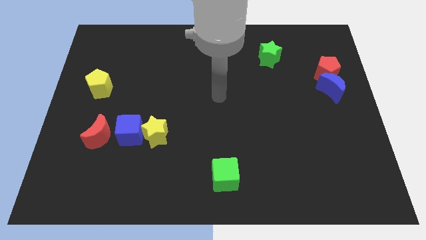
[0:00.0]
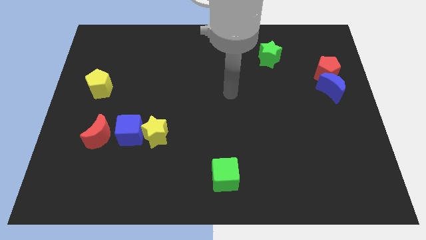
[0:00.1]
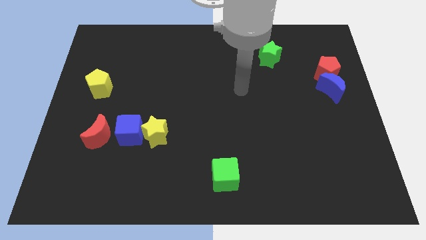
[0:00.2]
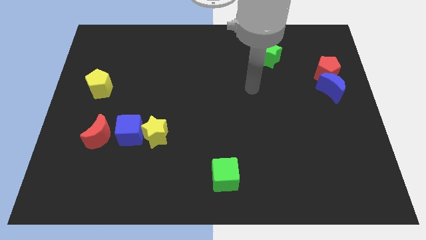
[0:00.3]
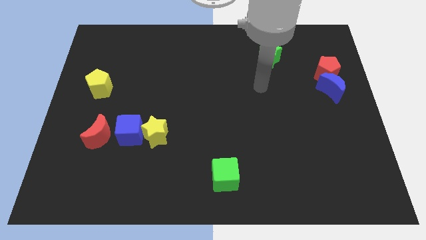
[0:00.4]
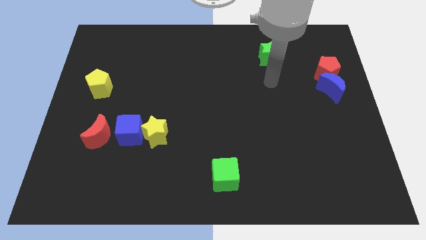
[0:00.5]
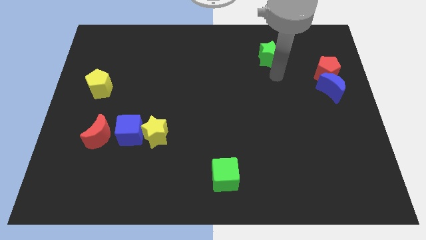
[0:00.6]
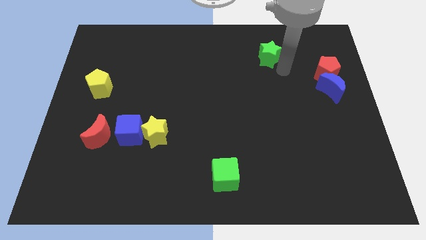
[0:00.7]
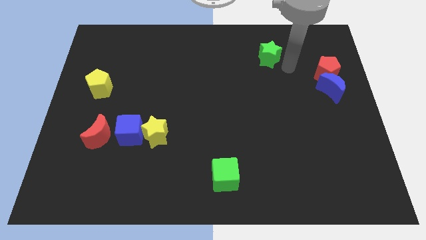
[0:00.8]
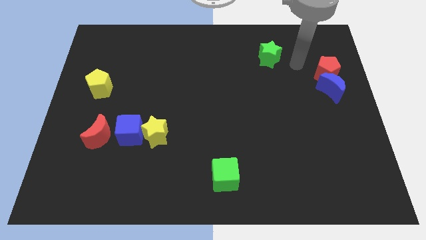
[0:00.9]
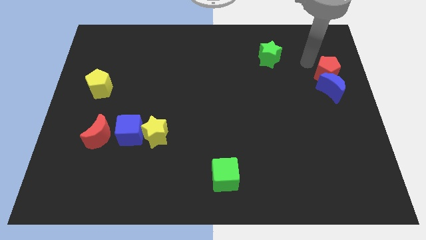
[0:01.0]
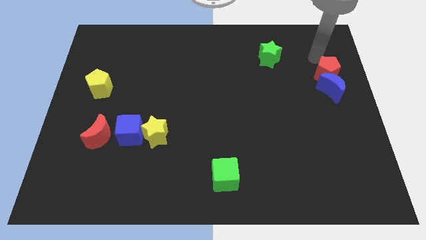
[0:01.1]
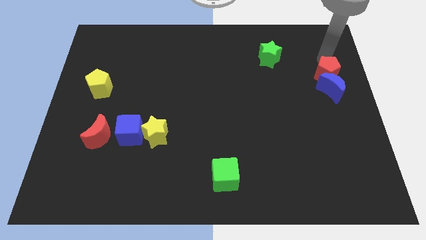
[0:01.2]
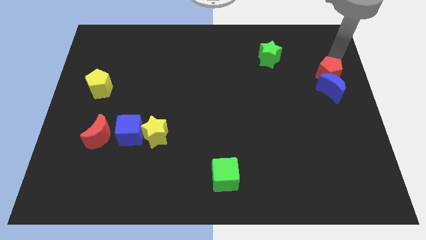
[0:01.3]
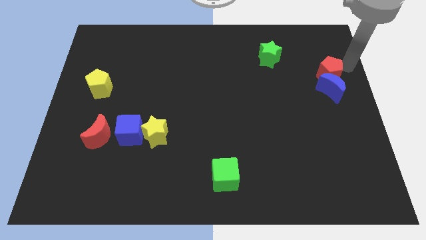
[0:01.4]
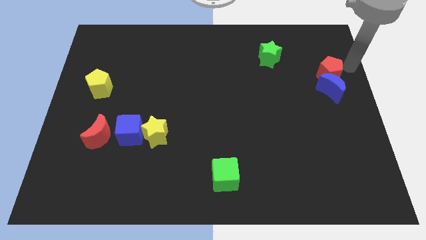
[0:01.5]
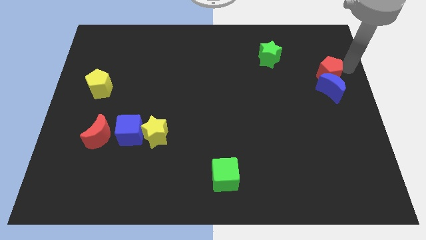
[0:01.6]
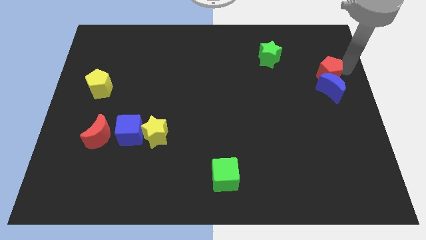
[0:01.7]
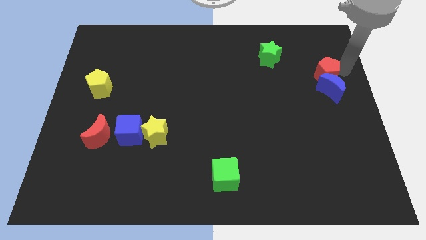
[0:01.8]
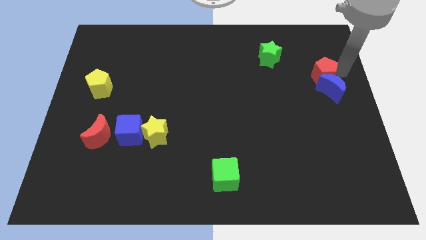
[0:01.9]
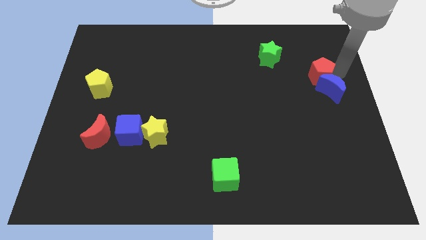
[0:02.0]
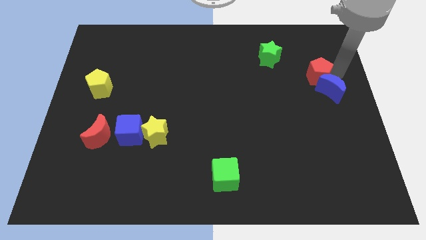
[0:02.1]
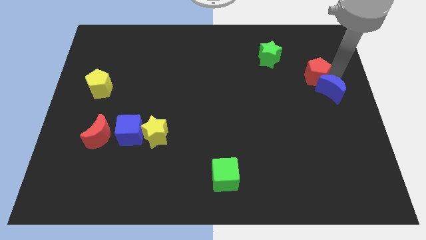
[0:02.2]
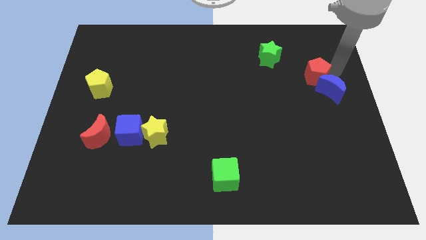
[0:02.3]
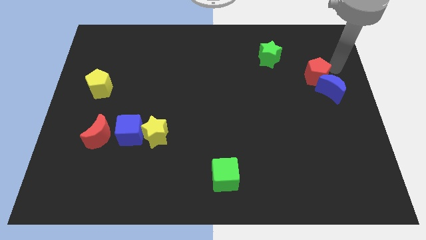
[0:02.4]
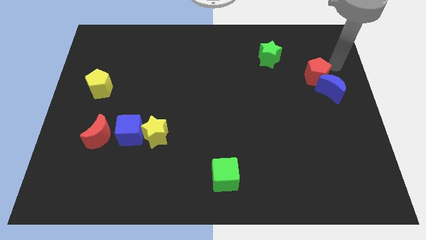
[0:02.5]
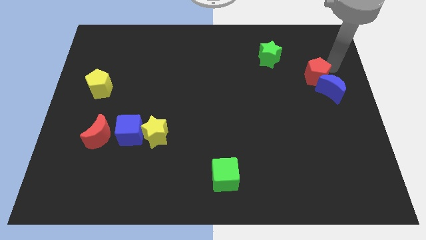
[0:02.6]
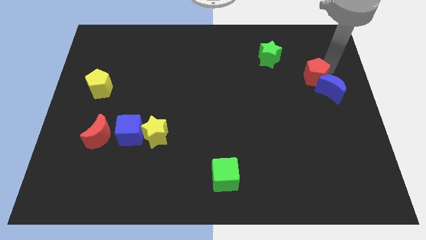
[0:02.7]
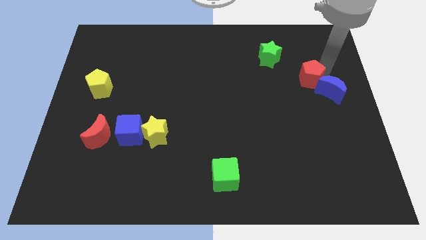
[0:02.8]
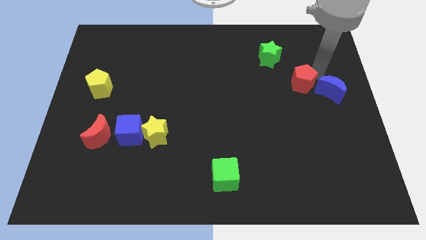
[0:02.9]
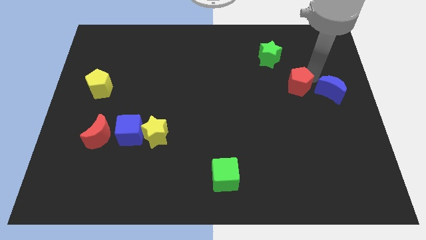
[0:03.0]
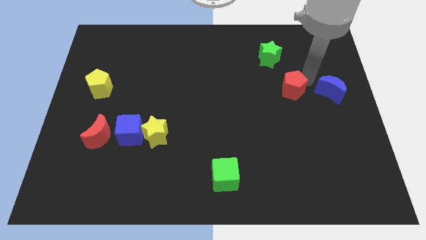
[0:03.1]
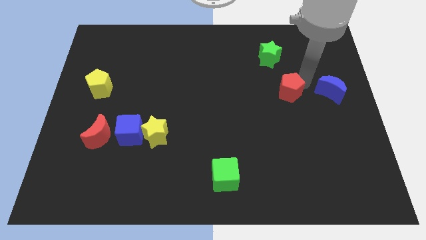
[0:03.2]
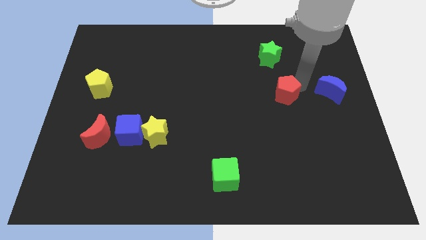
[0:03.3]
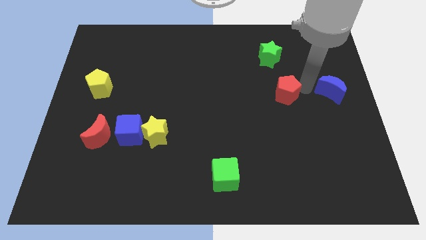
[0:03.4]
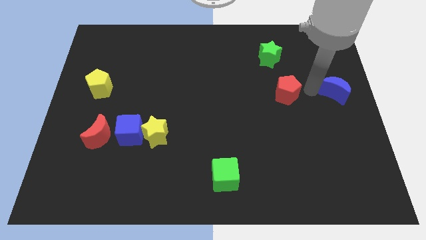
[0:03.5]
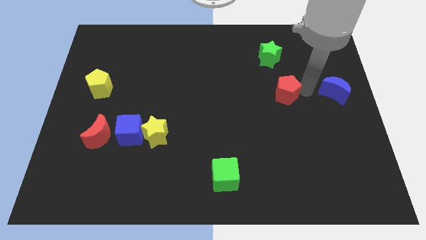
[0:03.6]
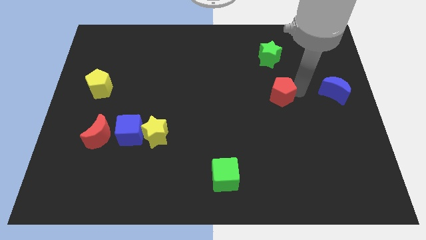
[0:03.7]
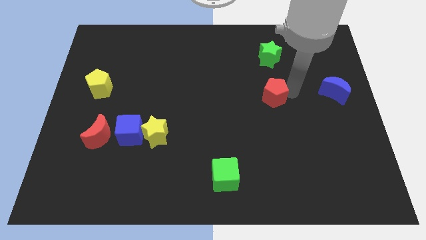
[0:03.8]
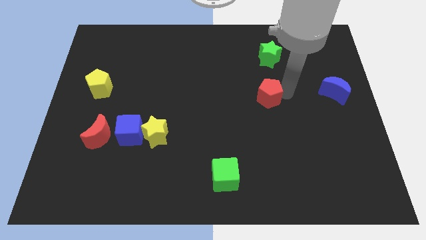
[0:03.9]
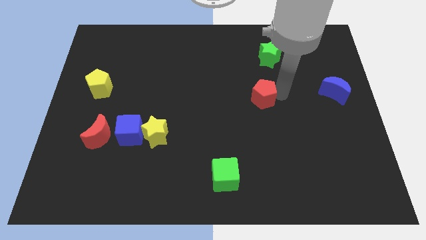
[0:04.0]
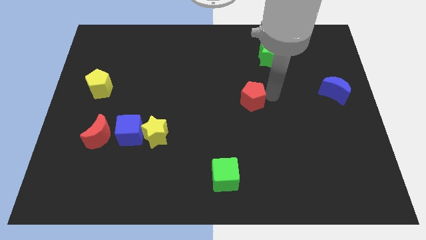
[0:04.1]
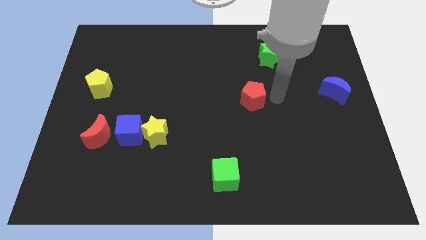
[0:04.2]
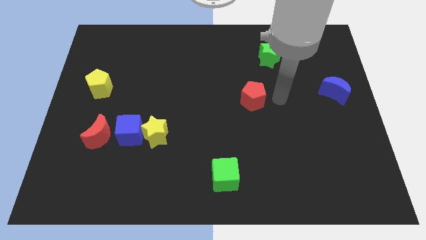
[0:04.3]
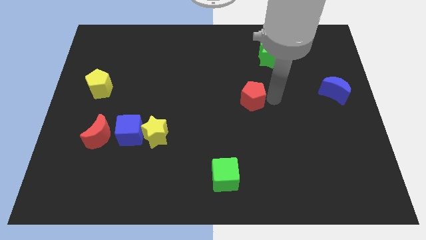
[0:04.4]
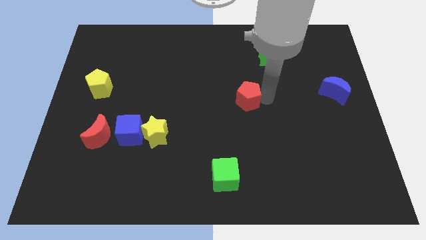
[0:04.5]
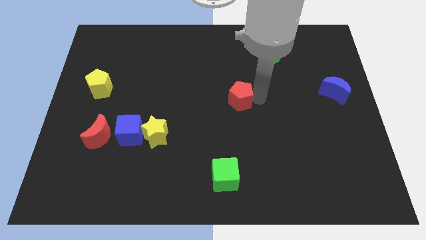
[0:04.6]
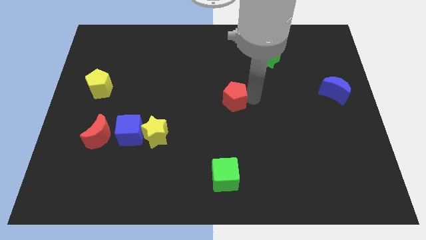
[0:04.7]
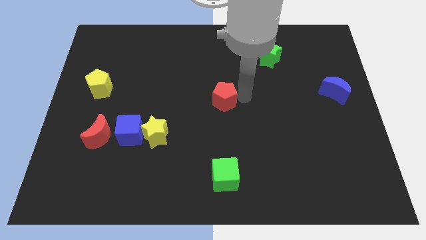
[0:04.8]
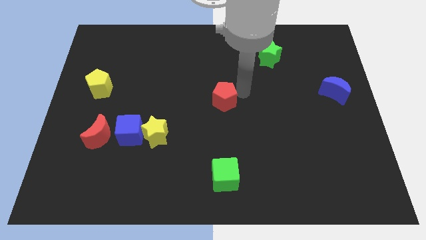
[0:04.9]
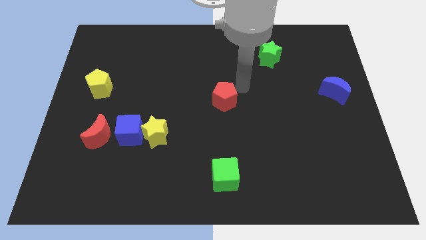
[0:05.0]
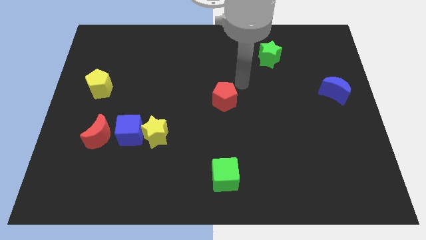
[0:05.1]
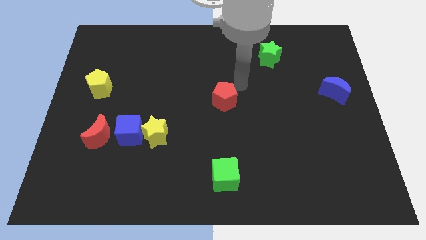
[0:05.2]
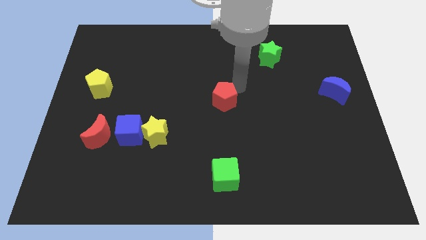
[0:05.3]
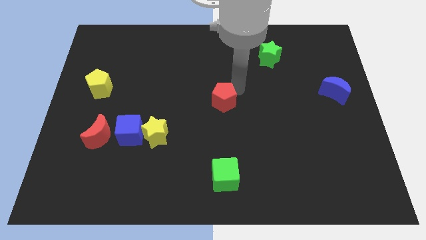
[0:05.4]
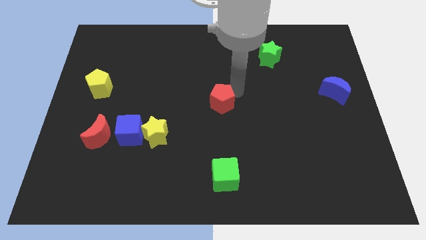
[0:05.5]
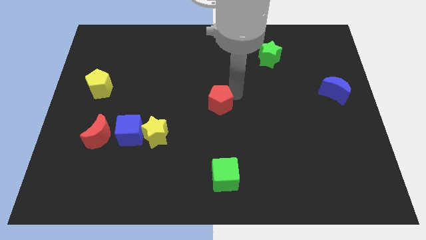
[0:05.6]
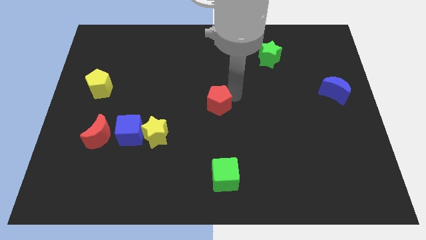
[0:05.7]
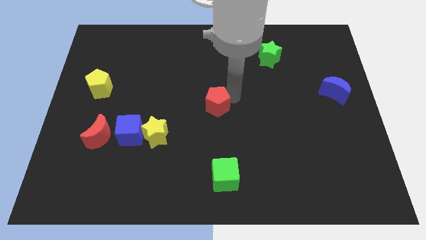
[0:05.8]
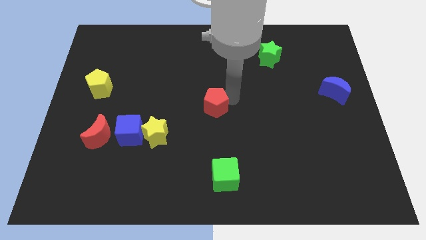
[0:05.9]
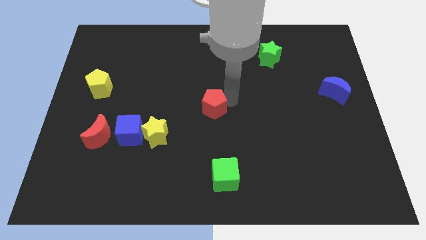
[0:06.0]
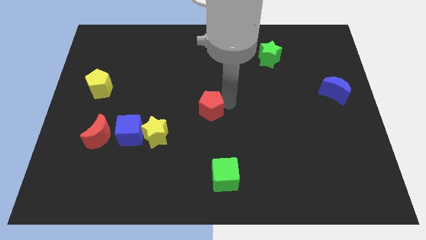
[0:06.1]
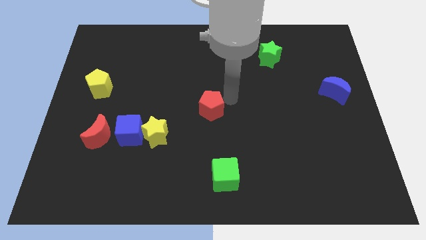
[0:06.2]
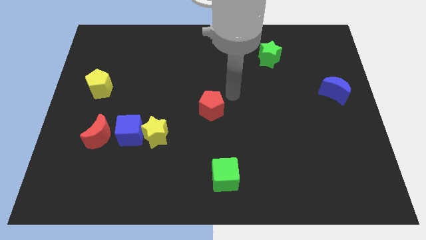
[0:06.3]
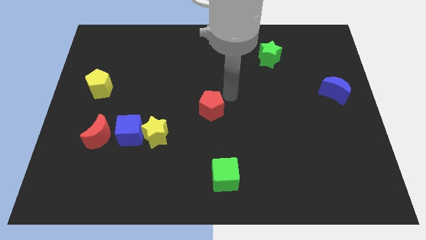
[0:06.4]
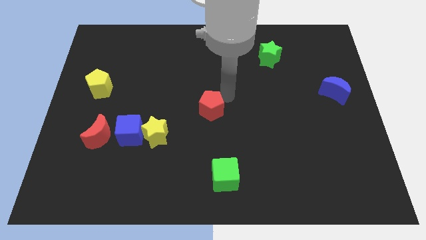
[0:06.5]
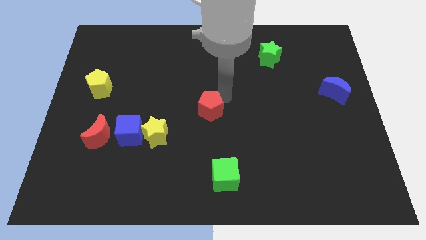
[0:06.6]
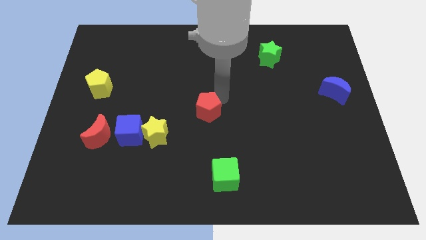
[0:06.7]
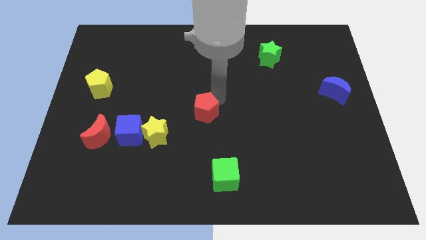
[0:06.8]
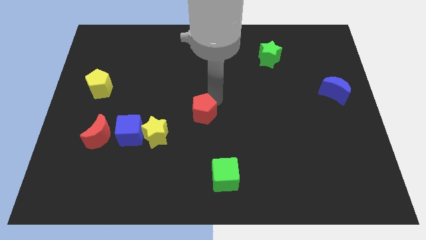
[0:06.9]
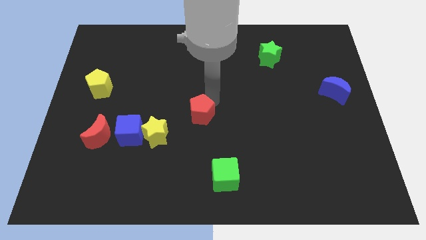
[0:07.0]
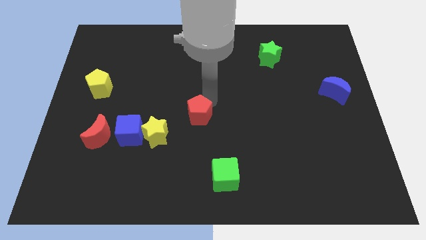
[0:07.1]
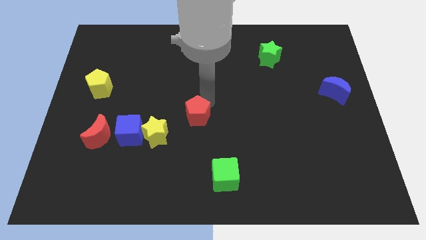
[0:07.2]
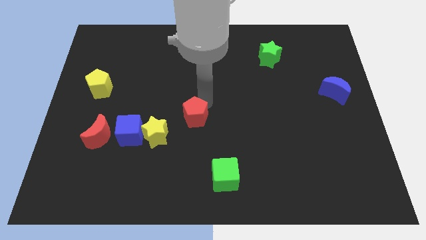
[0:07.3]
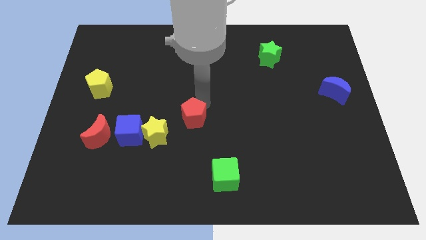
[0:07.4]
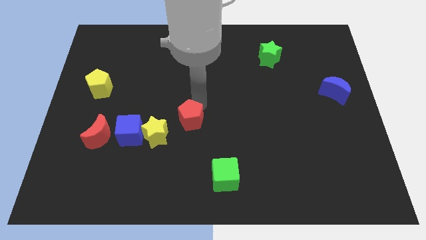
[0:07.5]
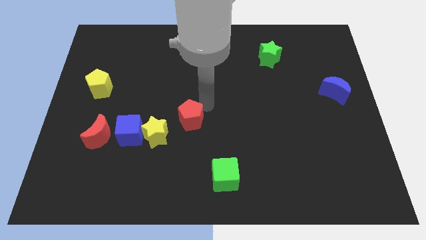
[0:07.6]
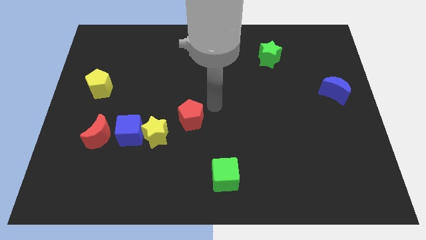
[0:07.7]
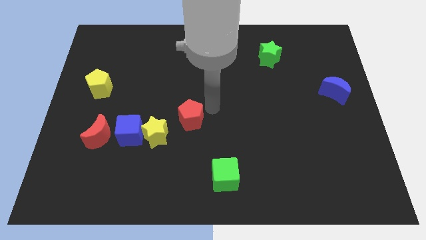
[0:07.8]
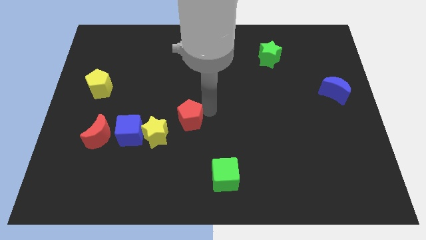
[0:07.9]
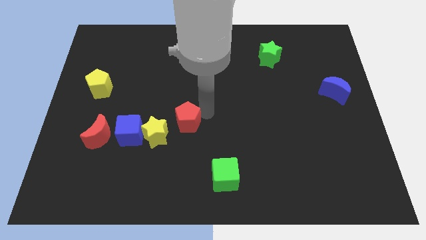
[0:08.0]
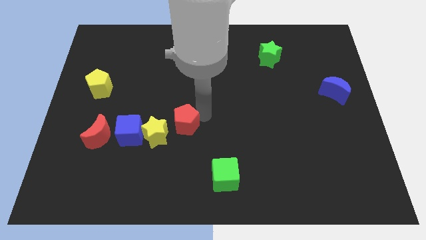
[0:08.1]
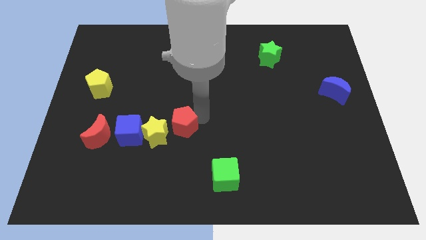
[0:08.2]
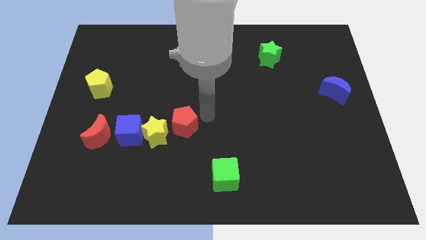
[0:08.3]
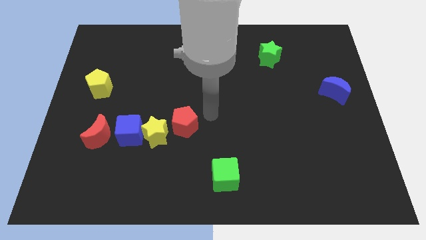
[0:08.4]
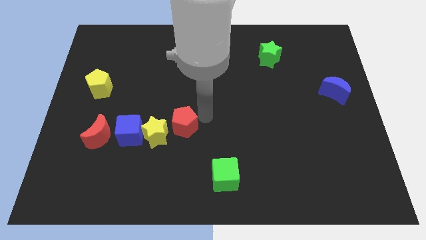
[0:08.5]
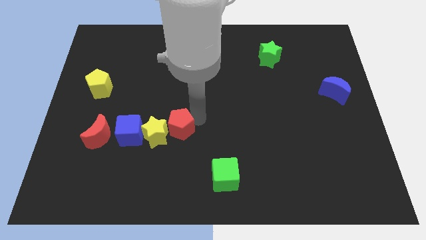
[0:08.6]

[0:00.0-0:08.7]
put the red pentagon close to the yellow star
